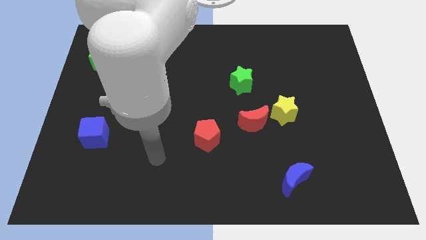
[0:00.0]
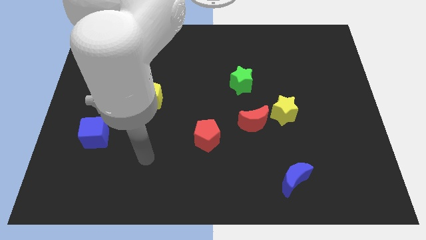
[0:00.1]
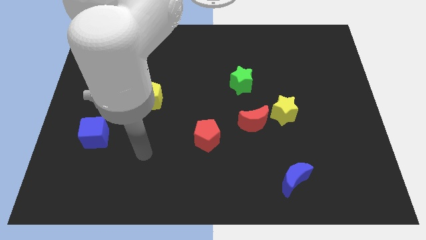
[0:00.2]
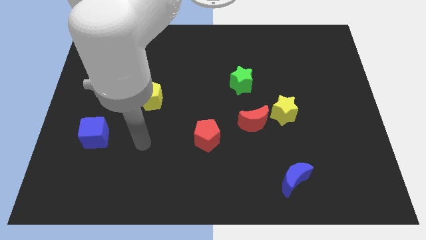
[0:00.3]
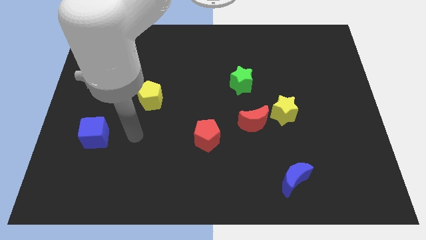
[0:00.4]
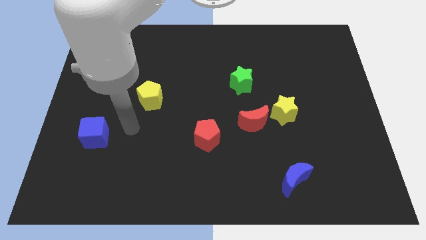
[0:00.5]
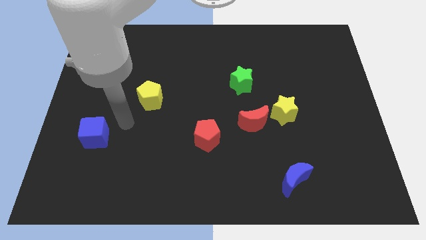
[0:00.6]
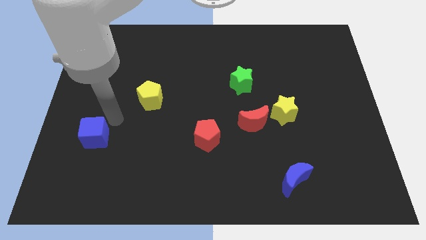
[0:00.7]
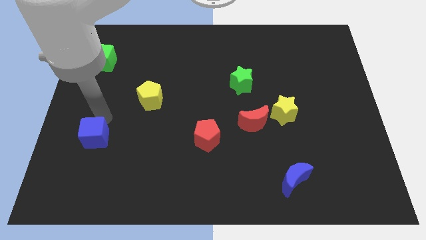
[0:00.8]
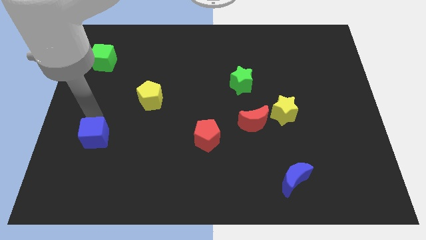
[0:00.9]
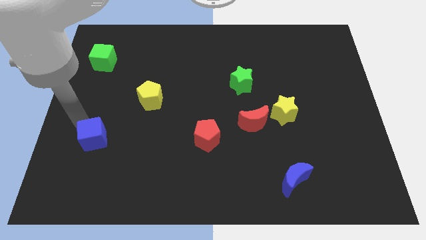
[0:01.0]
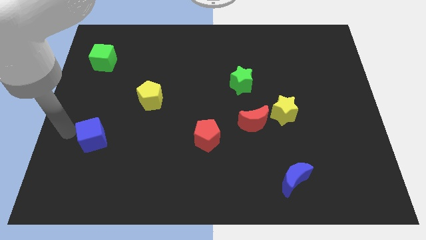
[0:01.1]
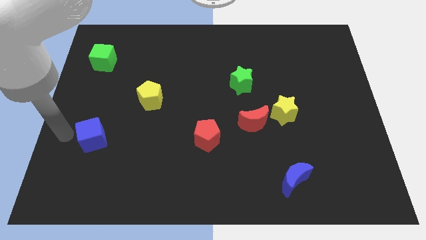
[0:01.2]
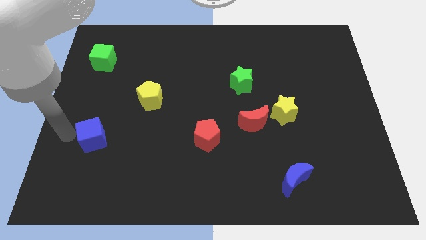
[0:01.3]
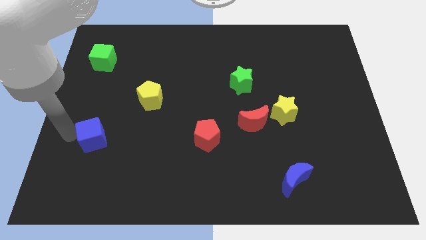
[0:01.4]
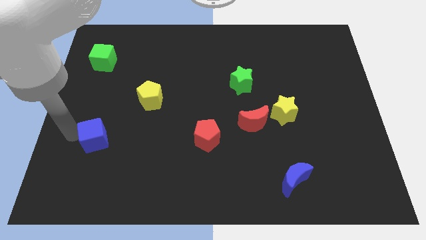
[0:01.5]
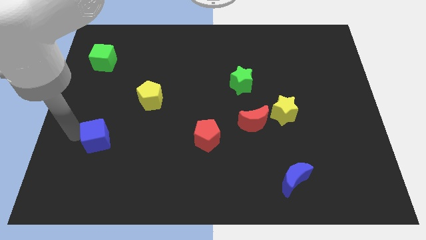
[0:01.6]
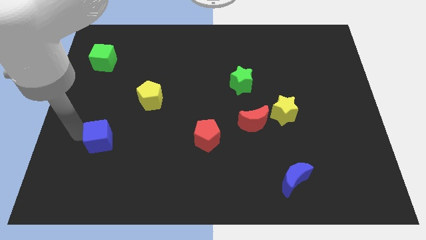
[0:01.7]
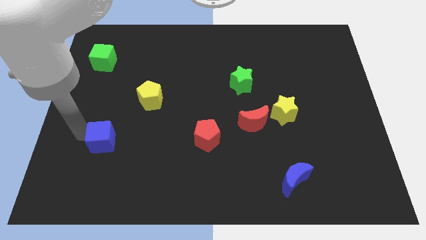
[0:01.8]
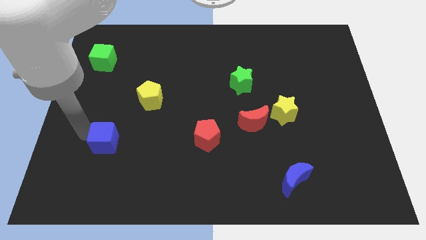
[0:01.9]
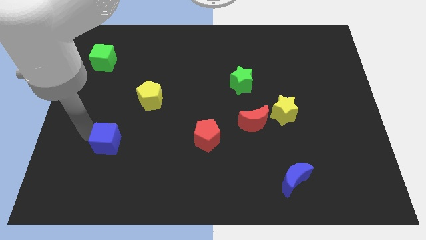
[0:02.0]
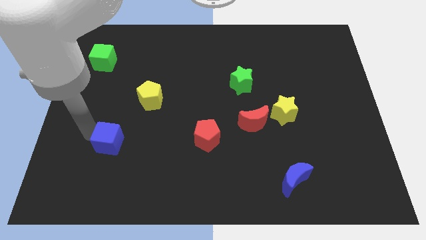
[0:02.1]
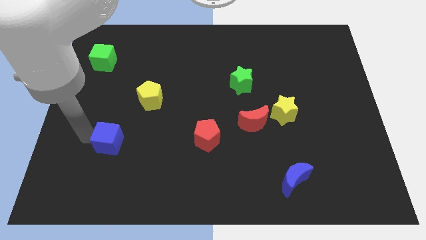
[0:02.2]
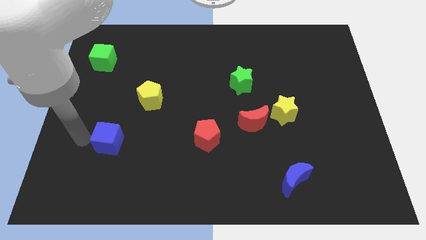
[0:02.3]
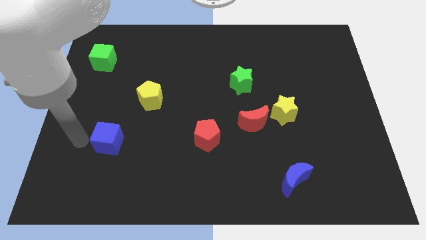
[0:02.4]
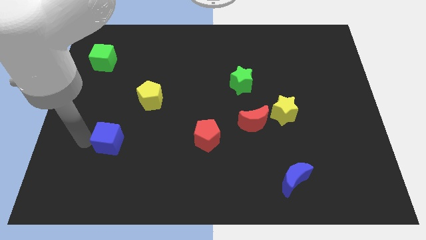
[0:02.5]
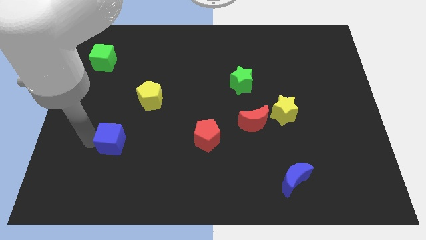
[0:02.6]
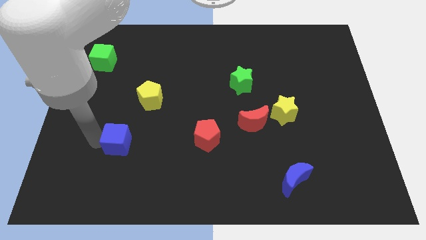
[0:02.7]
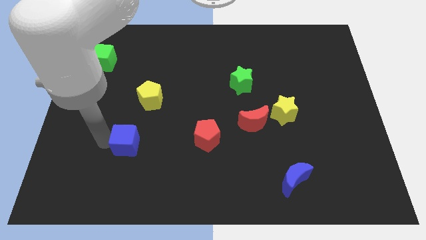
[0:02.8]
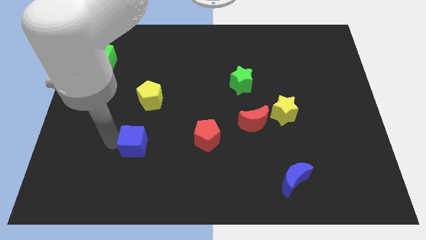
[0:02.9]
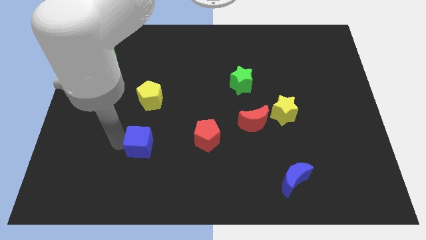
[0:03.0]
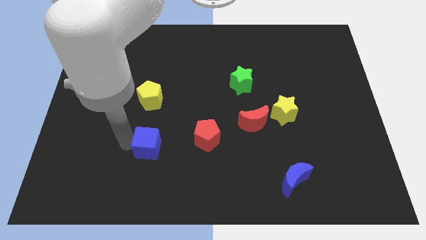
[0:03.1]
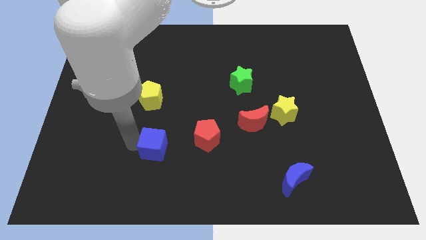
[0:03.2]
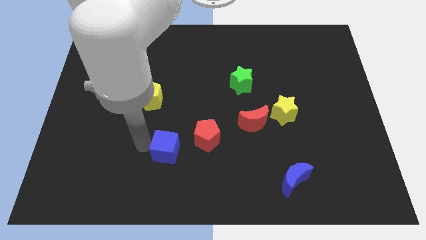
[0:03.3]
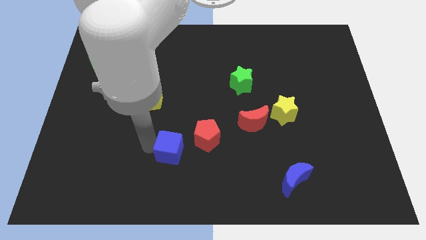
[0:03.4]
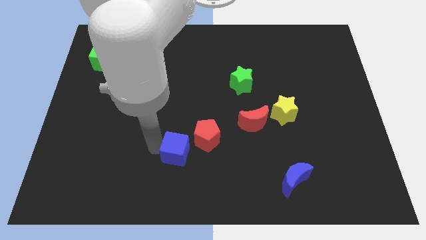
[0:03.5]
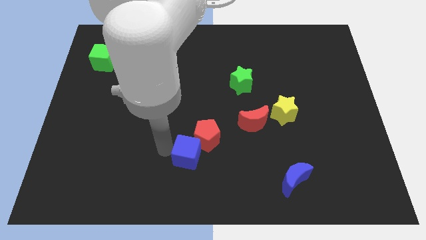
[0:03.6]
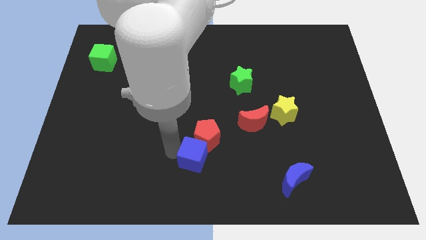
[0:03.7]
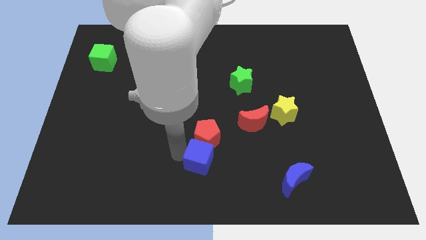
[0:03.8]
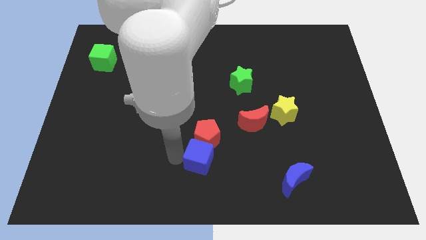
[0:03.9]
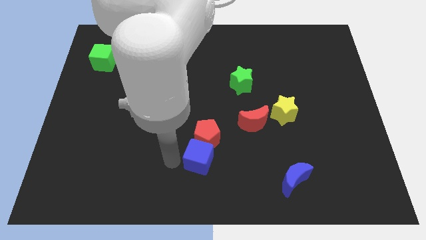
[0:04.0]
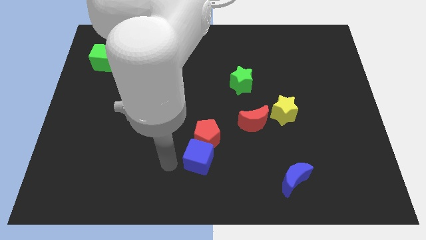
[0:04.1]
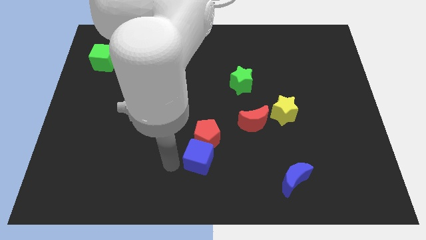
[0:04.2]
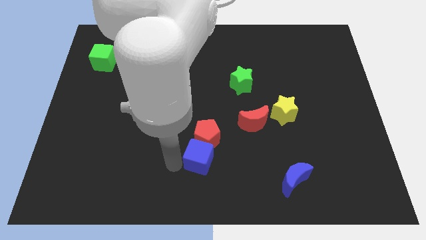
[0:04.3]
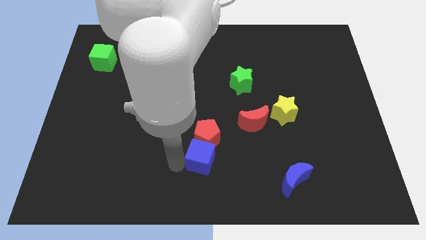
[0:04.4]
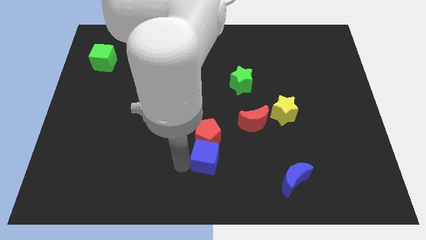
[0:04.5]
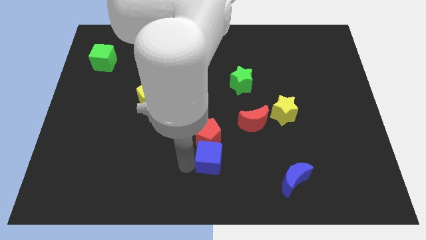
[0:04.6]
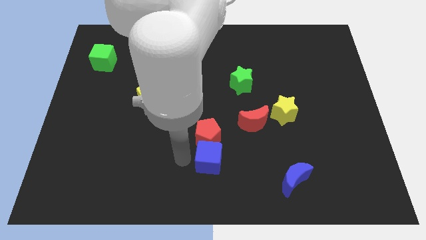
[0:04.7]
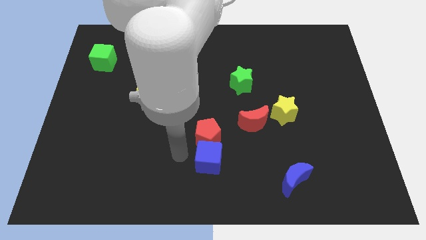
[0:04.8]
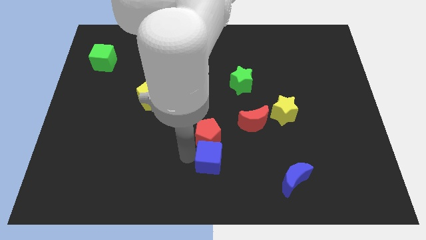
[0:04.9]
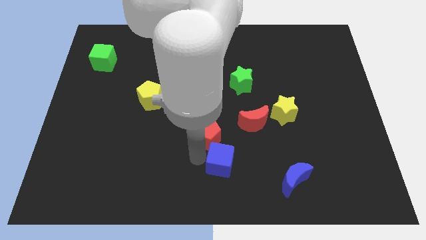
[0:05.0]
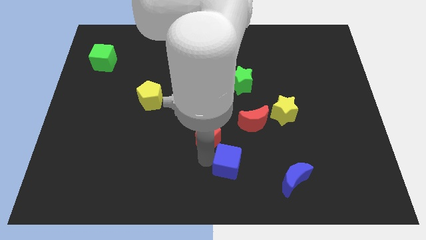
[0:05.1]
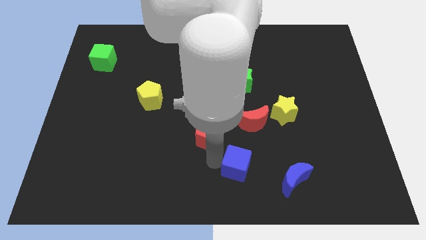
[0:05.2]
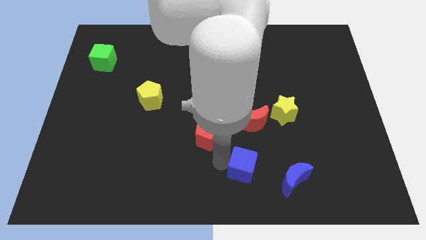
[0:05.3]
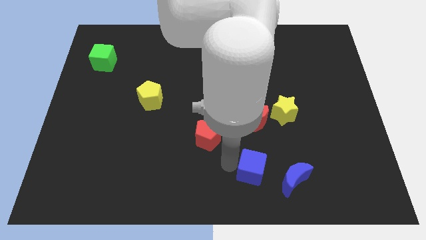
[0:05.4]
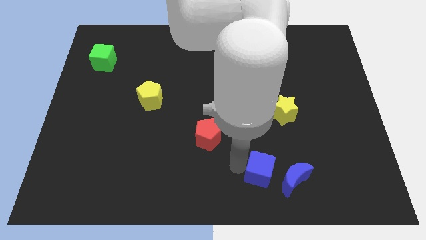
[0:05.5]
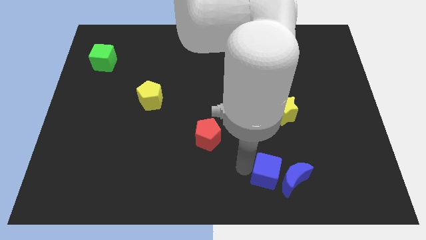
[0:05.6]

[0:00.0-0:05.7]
move the blue cube to the blue moon

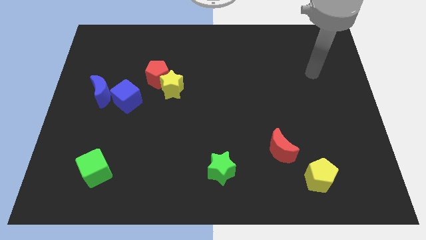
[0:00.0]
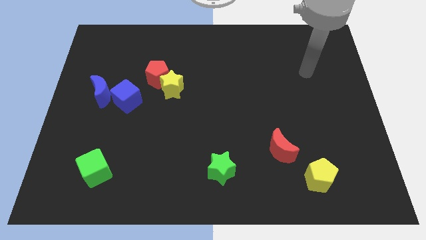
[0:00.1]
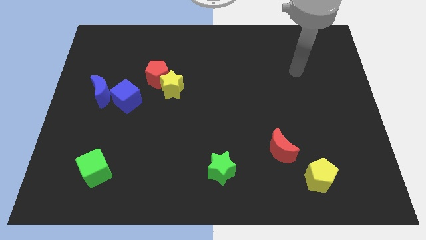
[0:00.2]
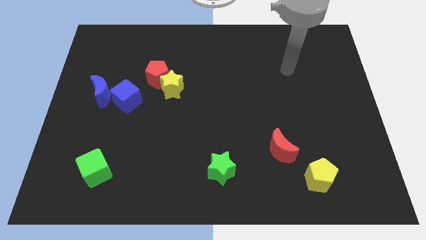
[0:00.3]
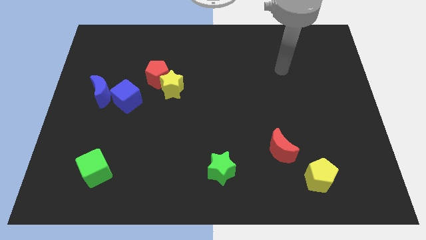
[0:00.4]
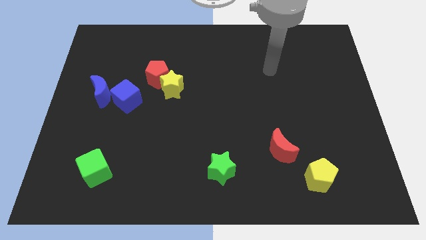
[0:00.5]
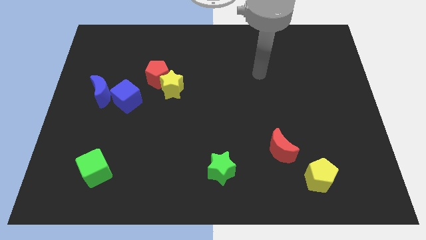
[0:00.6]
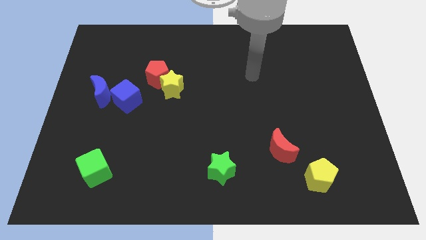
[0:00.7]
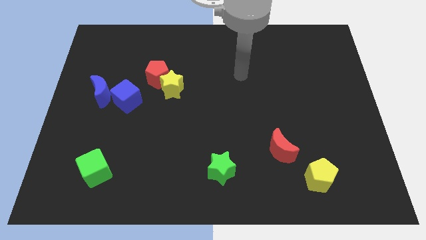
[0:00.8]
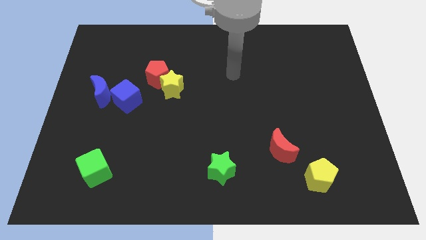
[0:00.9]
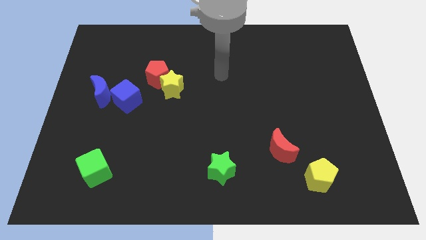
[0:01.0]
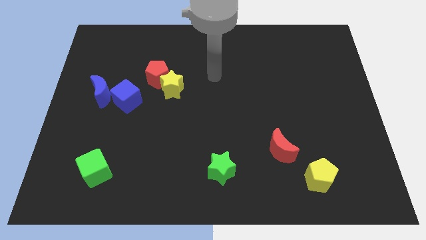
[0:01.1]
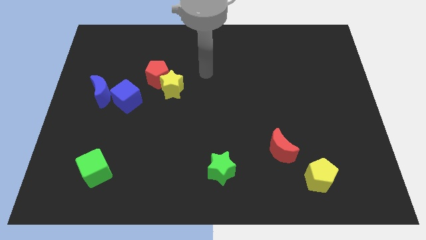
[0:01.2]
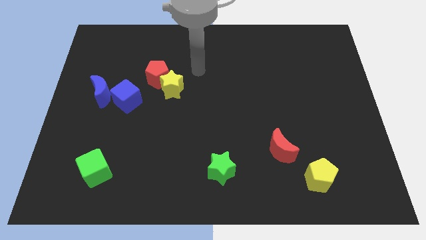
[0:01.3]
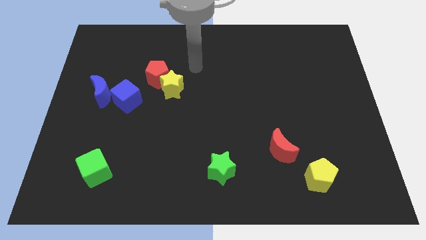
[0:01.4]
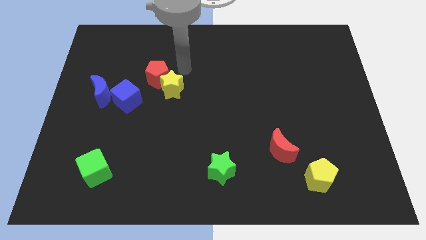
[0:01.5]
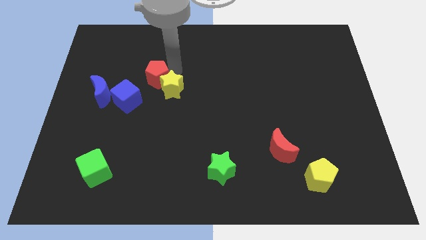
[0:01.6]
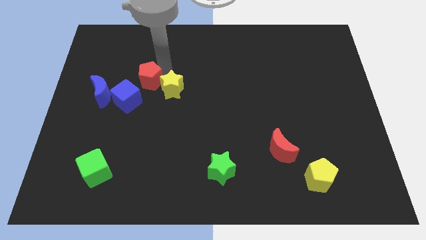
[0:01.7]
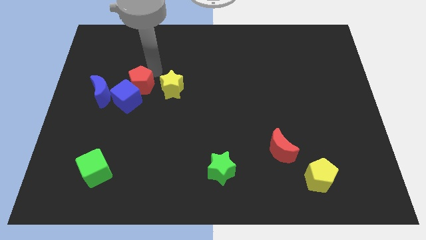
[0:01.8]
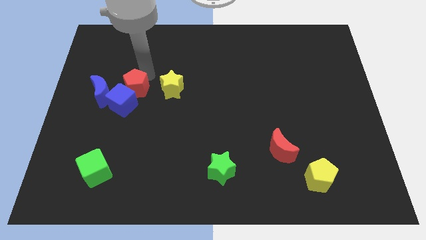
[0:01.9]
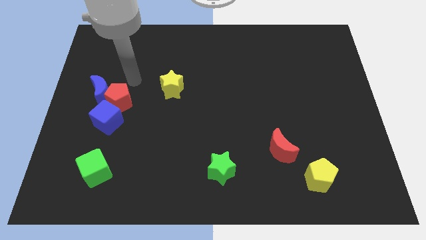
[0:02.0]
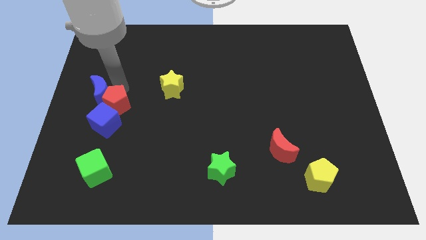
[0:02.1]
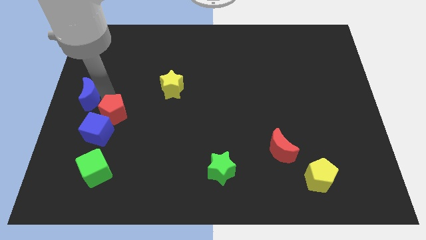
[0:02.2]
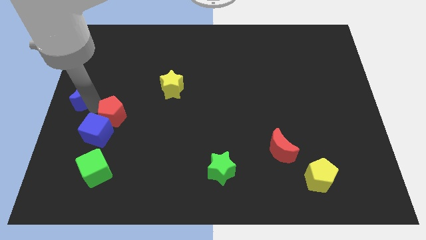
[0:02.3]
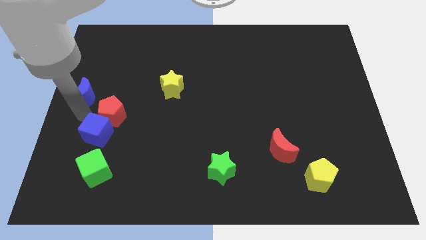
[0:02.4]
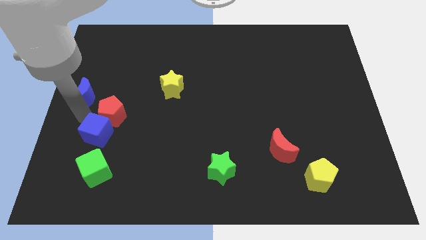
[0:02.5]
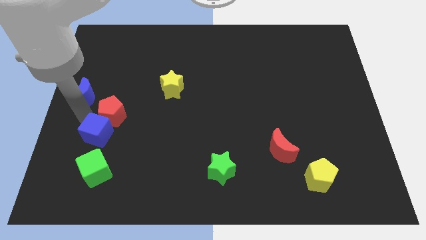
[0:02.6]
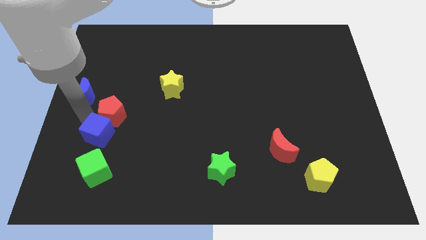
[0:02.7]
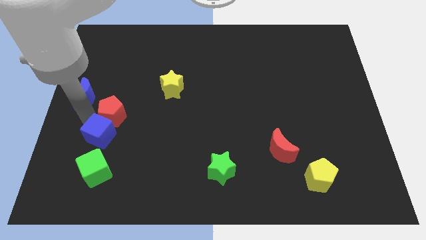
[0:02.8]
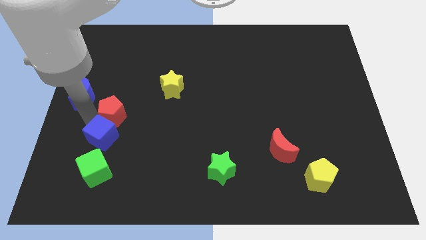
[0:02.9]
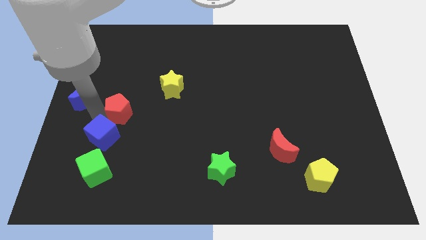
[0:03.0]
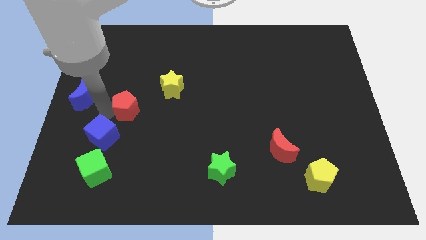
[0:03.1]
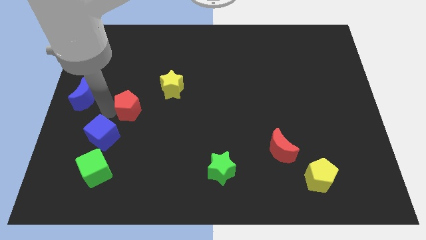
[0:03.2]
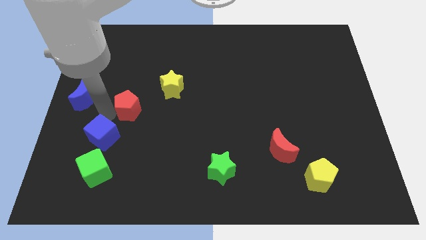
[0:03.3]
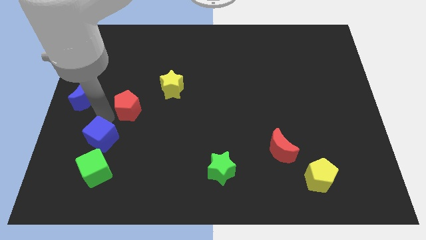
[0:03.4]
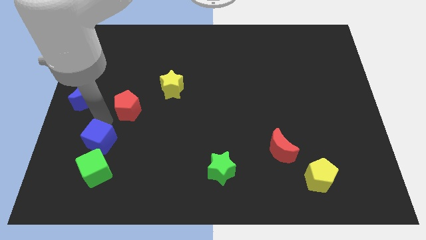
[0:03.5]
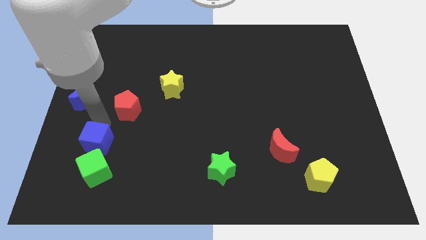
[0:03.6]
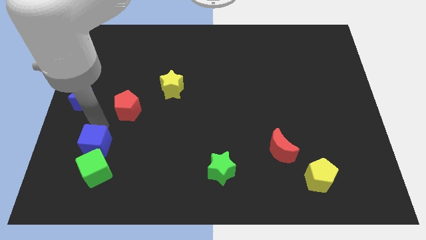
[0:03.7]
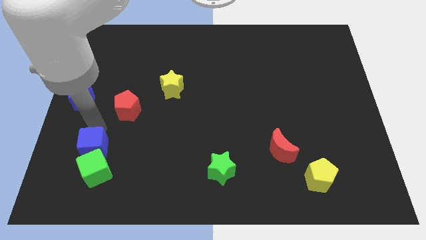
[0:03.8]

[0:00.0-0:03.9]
move the blue cube towards the green cube
